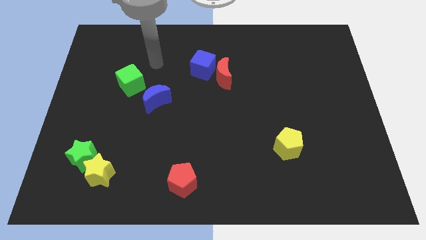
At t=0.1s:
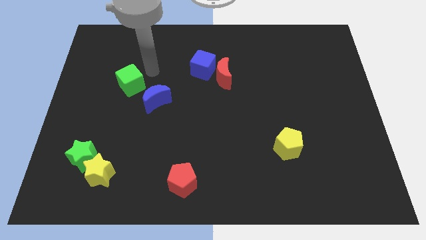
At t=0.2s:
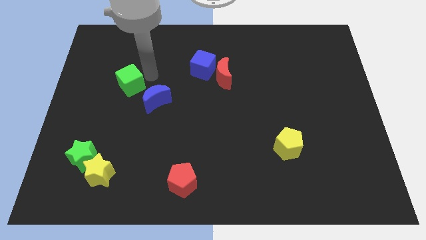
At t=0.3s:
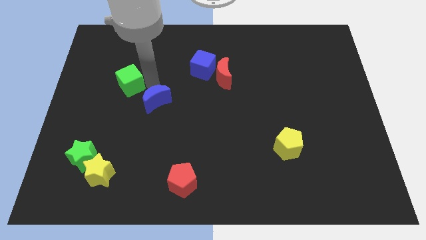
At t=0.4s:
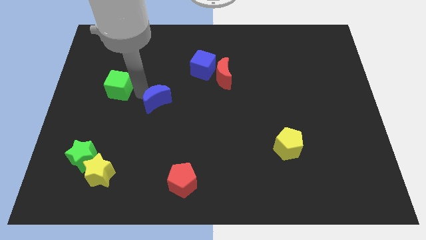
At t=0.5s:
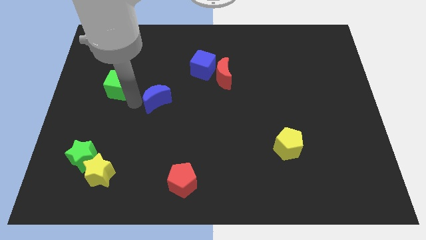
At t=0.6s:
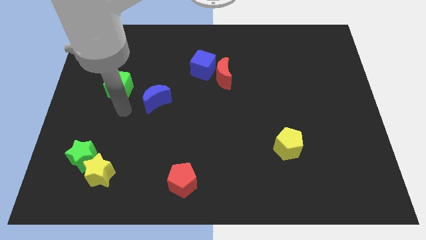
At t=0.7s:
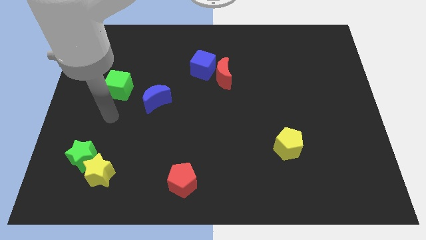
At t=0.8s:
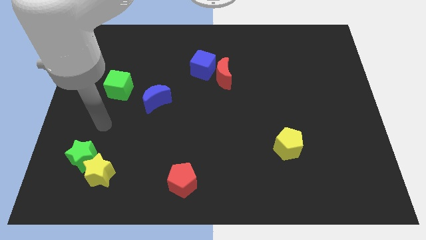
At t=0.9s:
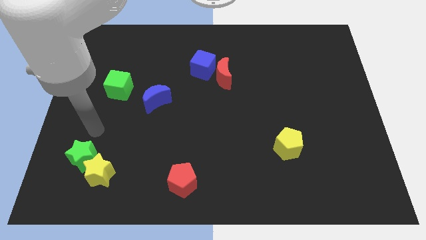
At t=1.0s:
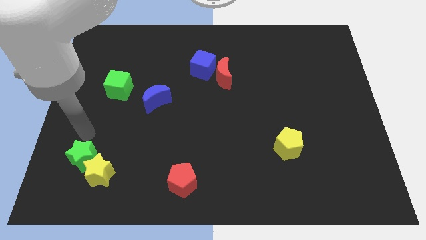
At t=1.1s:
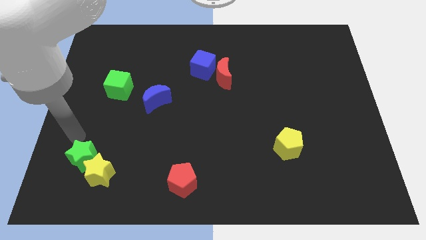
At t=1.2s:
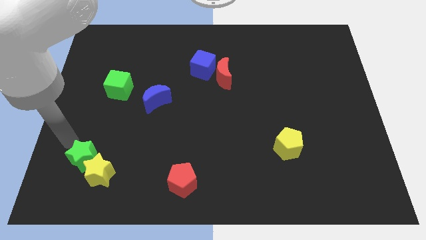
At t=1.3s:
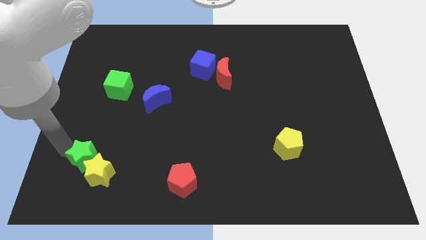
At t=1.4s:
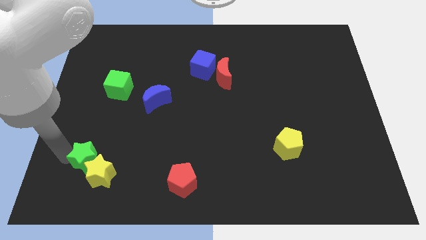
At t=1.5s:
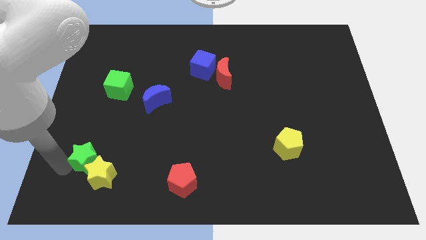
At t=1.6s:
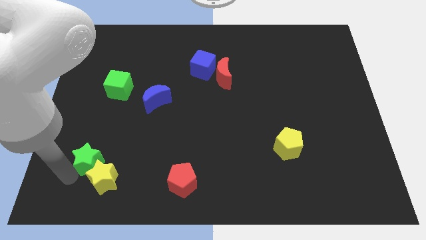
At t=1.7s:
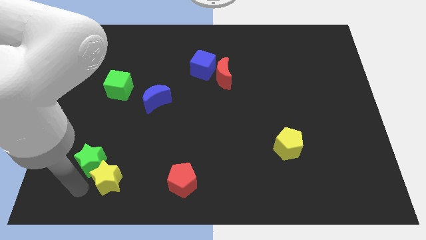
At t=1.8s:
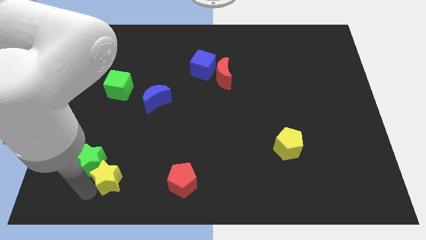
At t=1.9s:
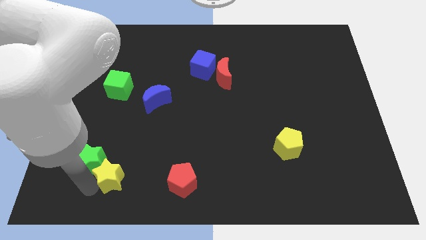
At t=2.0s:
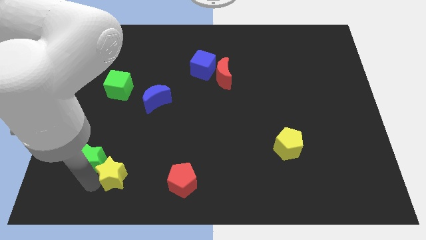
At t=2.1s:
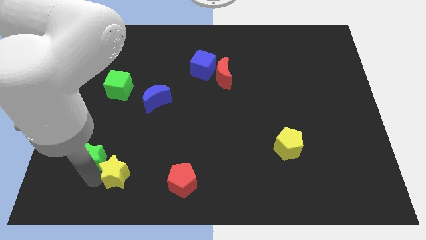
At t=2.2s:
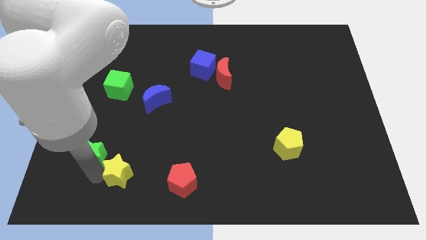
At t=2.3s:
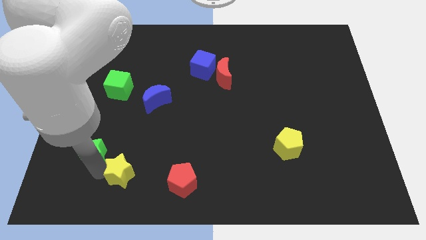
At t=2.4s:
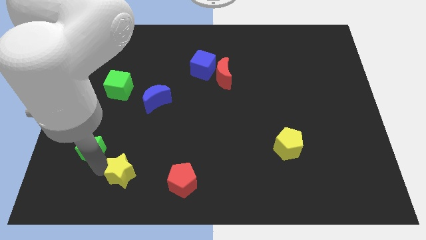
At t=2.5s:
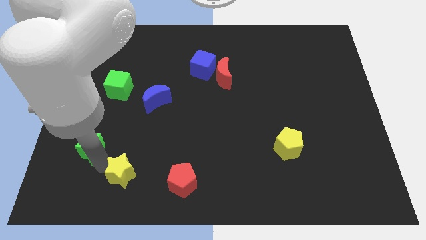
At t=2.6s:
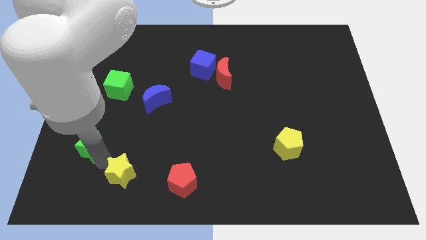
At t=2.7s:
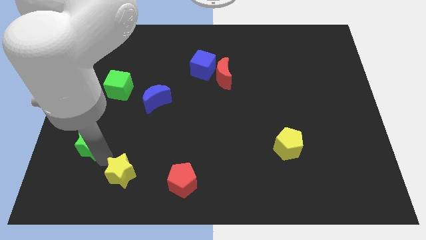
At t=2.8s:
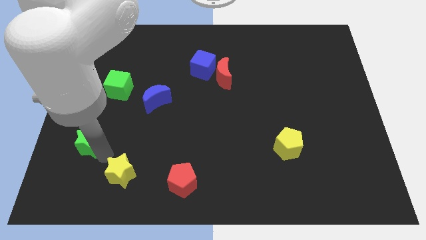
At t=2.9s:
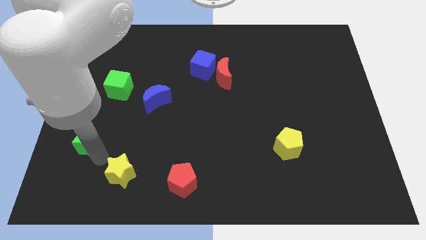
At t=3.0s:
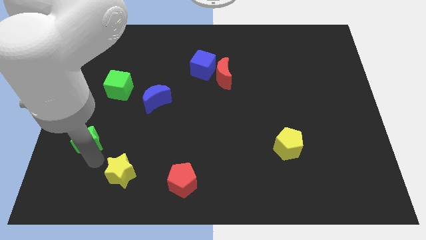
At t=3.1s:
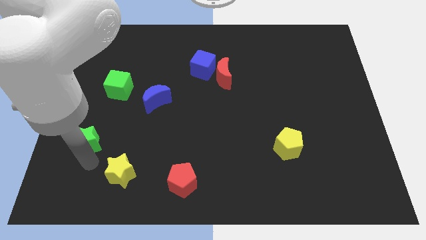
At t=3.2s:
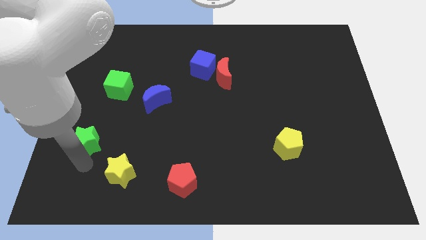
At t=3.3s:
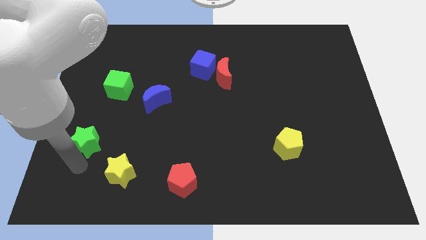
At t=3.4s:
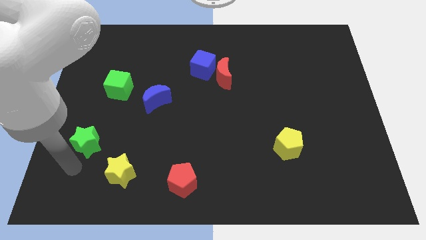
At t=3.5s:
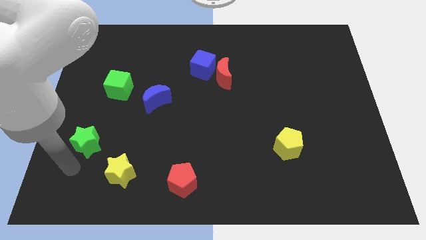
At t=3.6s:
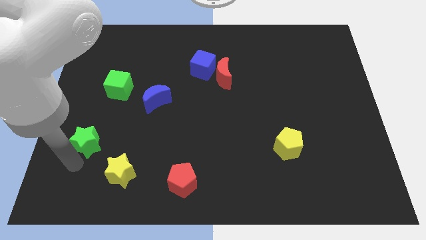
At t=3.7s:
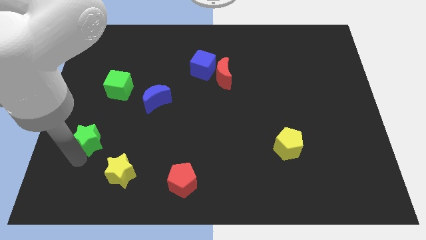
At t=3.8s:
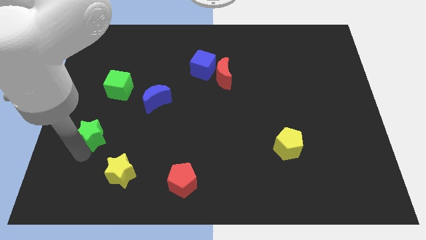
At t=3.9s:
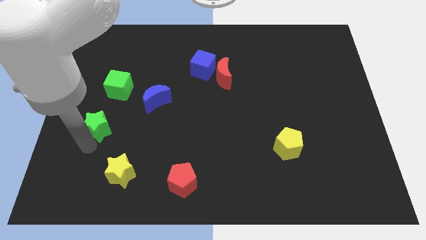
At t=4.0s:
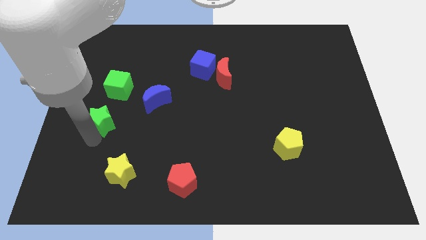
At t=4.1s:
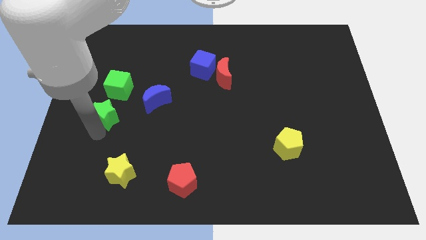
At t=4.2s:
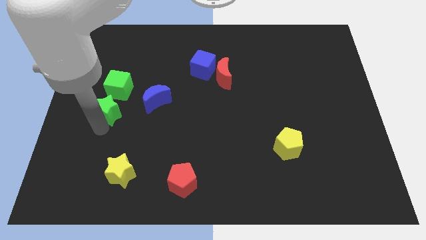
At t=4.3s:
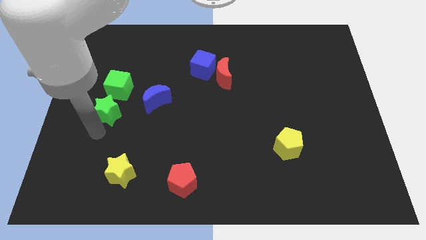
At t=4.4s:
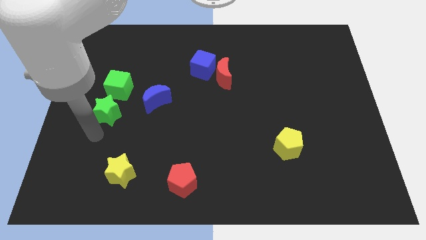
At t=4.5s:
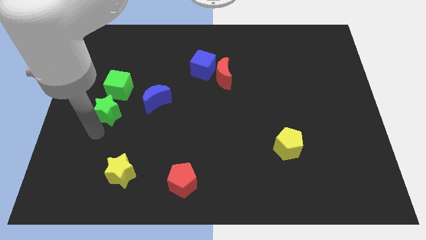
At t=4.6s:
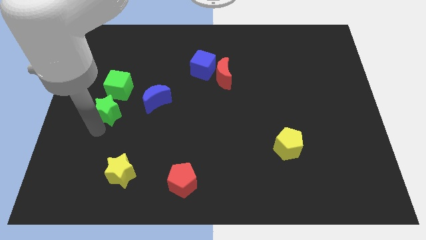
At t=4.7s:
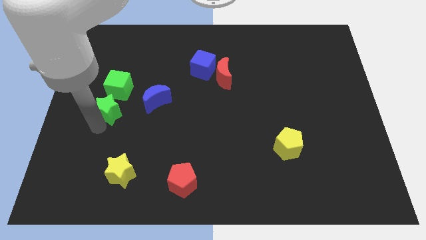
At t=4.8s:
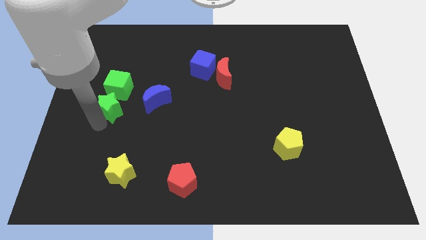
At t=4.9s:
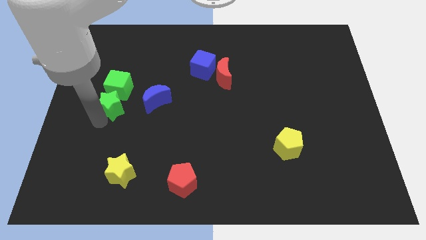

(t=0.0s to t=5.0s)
put the green star close to the green cube

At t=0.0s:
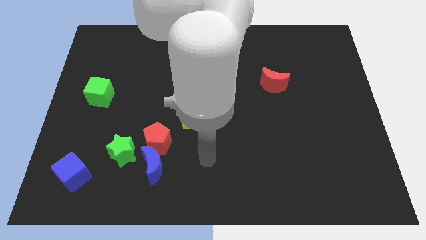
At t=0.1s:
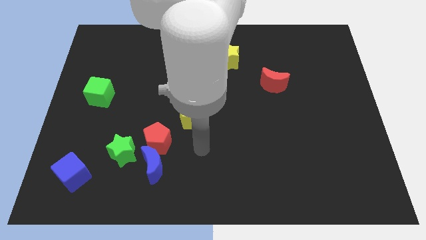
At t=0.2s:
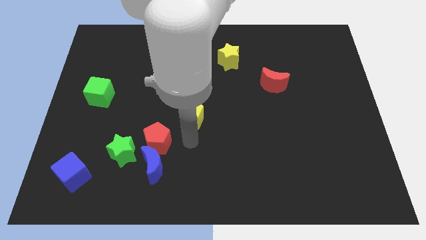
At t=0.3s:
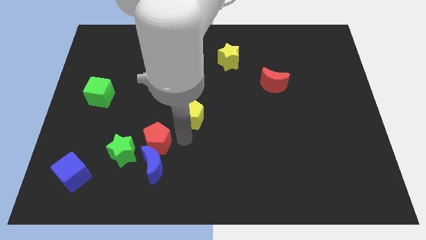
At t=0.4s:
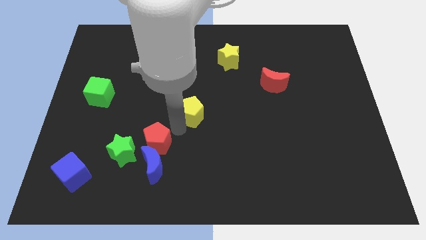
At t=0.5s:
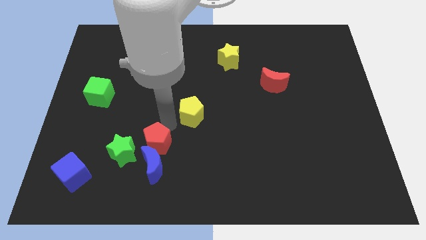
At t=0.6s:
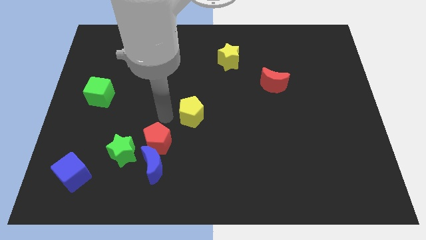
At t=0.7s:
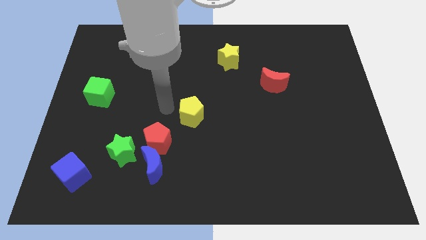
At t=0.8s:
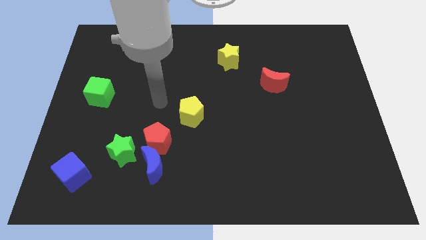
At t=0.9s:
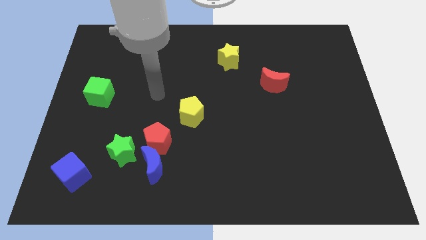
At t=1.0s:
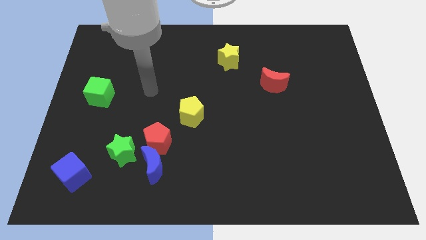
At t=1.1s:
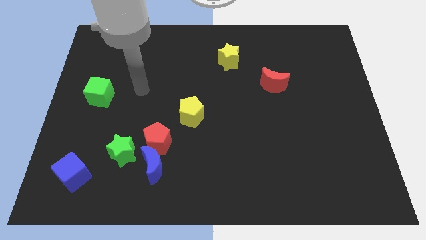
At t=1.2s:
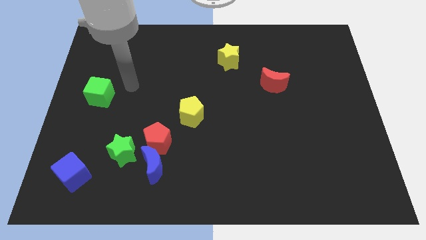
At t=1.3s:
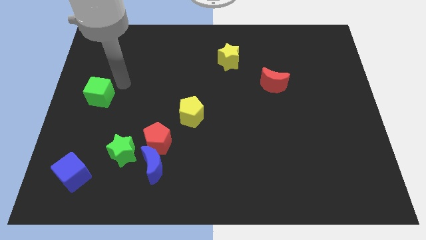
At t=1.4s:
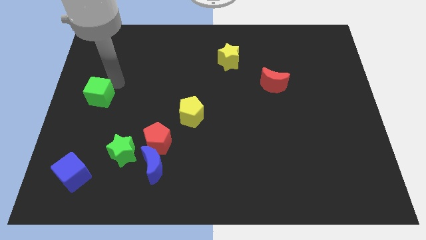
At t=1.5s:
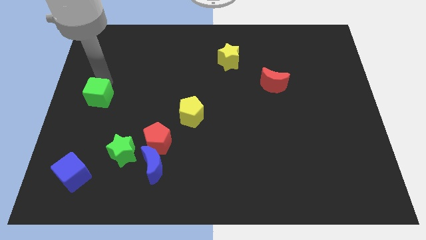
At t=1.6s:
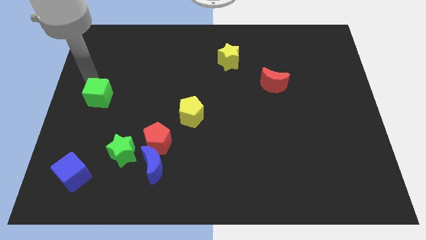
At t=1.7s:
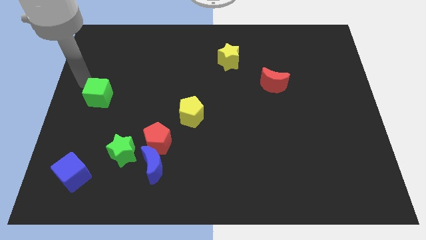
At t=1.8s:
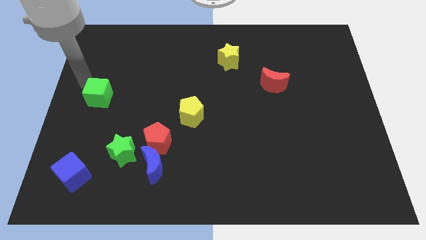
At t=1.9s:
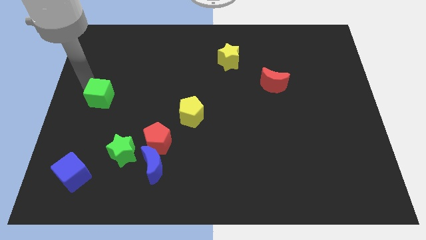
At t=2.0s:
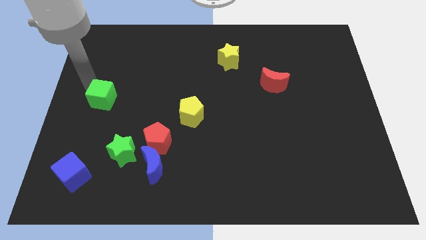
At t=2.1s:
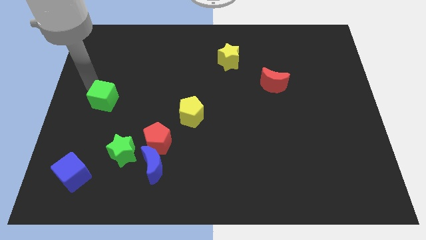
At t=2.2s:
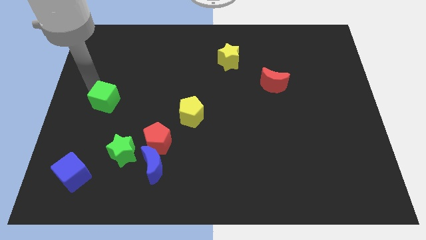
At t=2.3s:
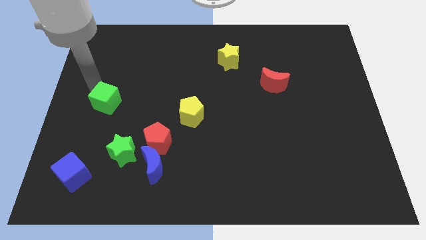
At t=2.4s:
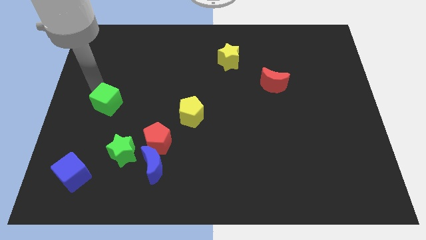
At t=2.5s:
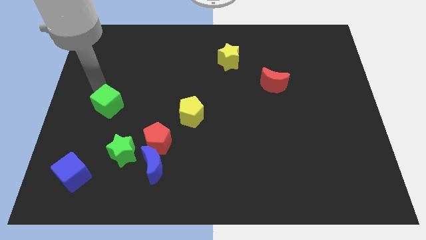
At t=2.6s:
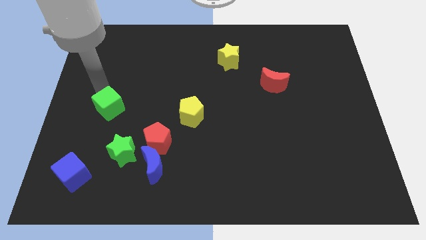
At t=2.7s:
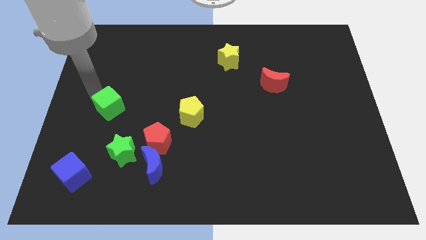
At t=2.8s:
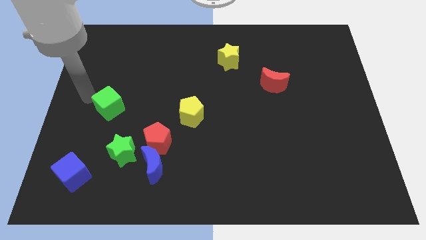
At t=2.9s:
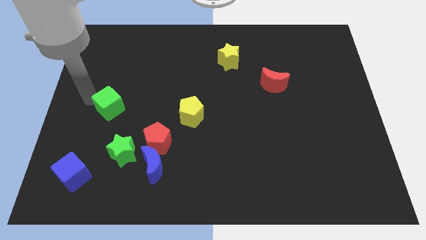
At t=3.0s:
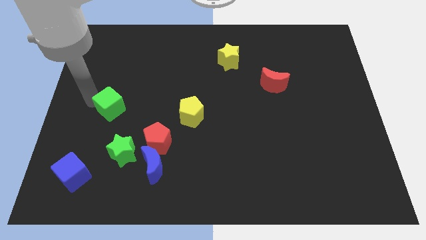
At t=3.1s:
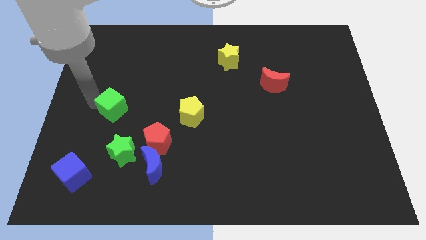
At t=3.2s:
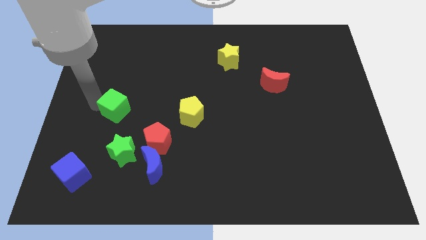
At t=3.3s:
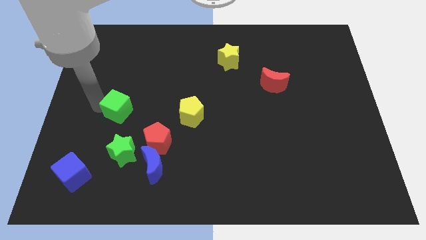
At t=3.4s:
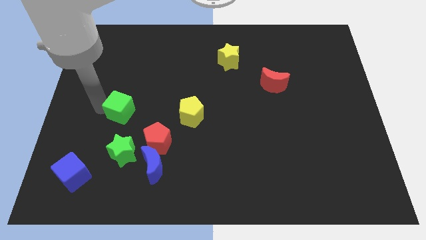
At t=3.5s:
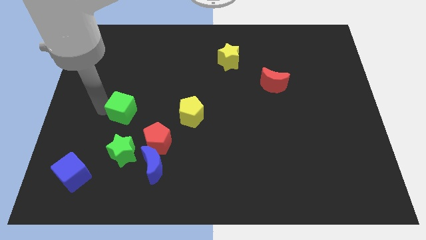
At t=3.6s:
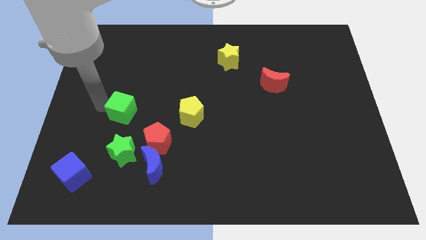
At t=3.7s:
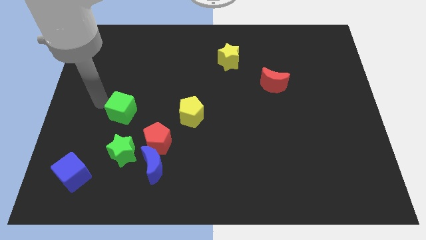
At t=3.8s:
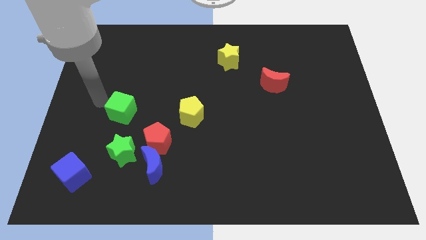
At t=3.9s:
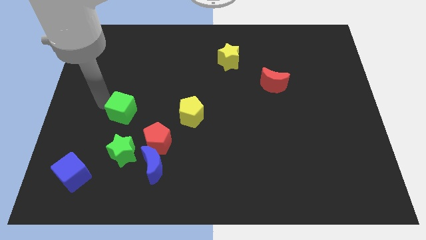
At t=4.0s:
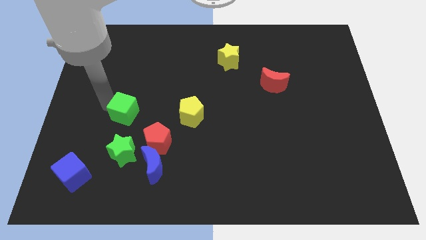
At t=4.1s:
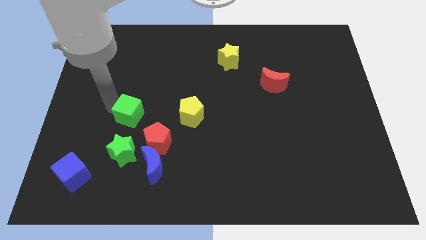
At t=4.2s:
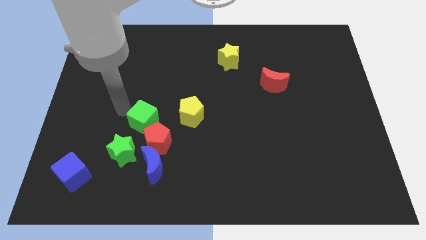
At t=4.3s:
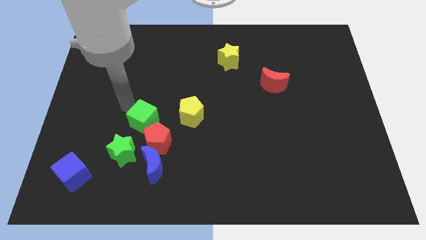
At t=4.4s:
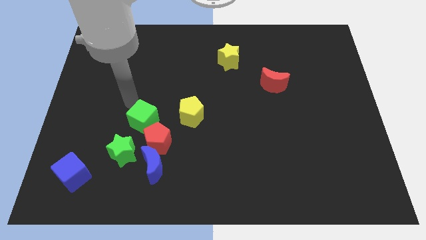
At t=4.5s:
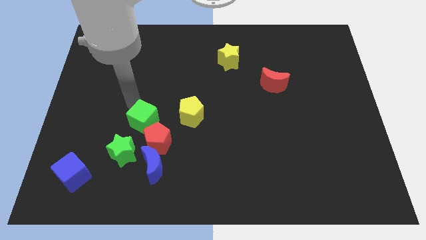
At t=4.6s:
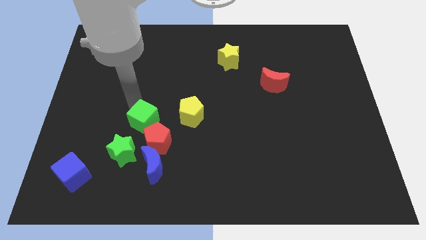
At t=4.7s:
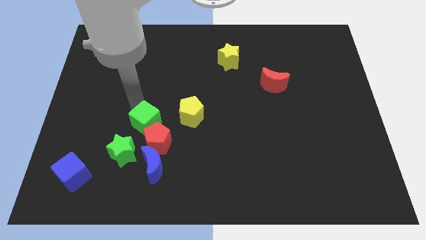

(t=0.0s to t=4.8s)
move the green cube towards the red pentagon
